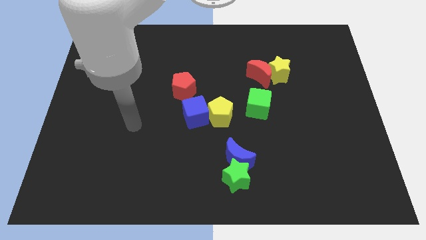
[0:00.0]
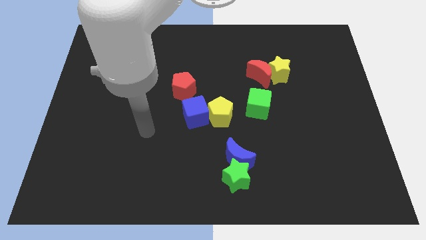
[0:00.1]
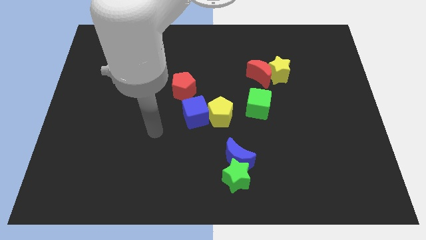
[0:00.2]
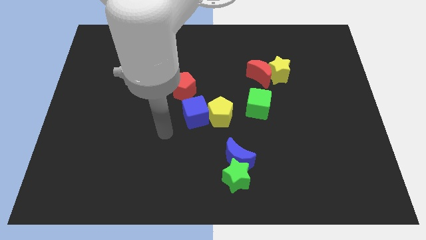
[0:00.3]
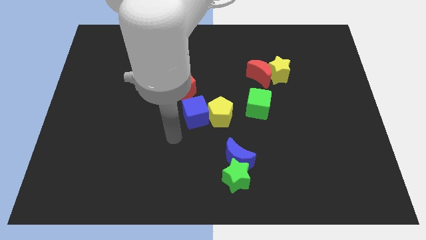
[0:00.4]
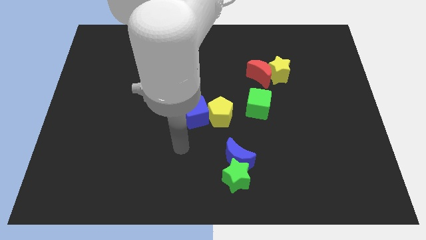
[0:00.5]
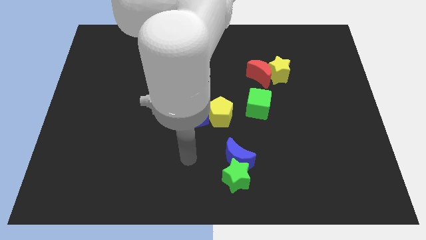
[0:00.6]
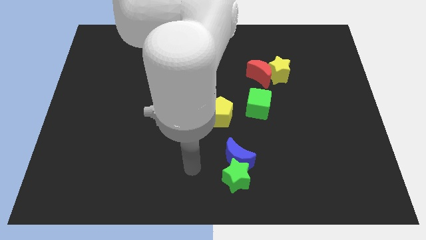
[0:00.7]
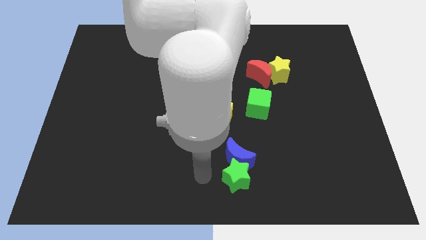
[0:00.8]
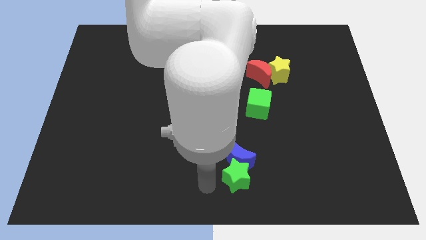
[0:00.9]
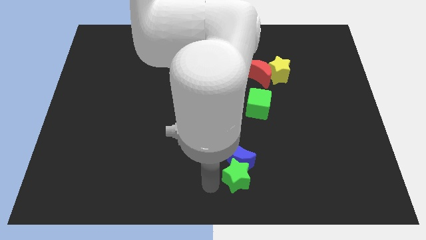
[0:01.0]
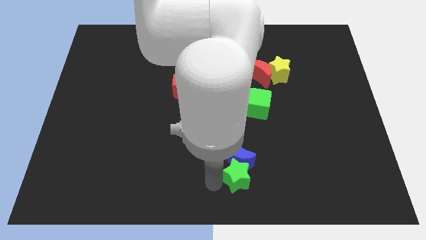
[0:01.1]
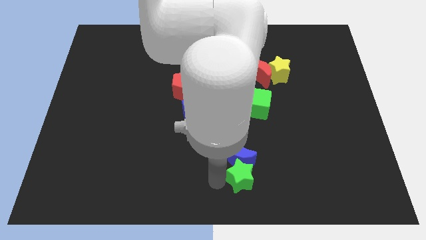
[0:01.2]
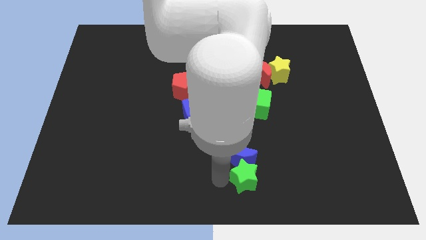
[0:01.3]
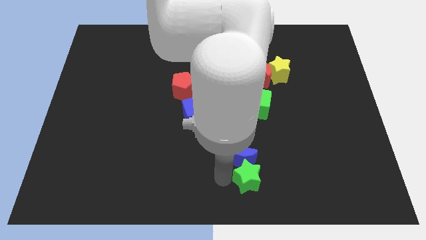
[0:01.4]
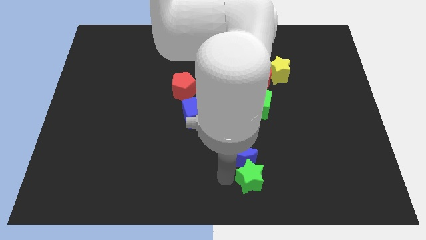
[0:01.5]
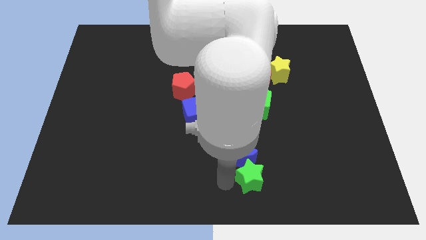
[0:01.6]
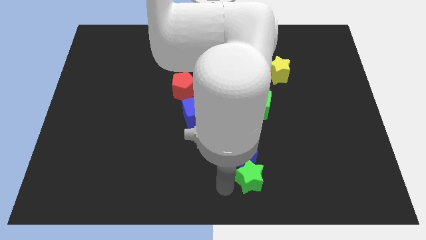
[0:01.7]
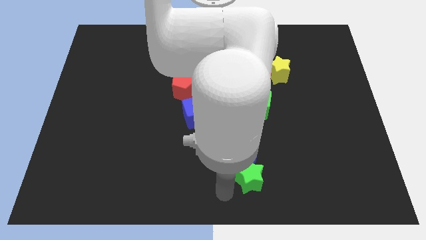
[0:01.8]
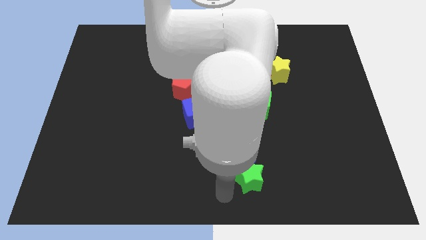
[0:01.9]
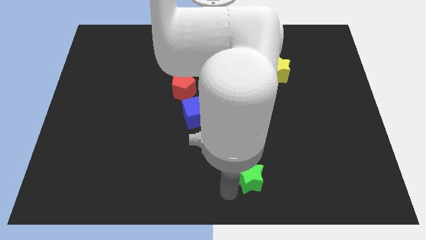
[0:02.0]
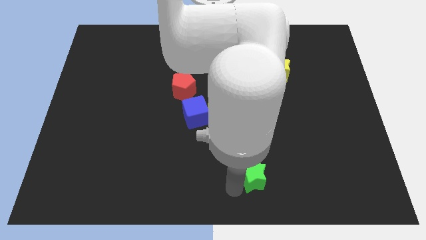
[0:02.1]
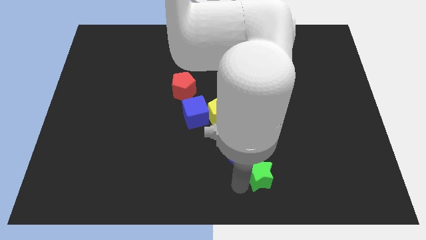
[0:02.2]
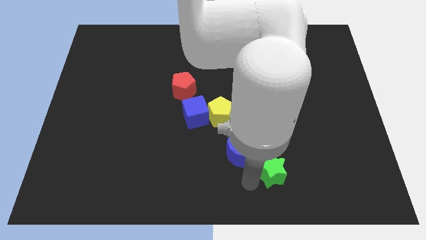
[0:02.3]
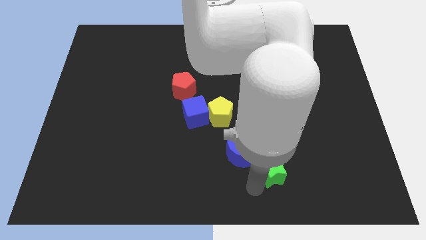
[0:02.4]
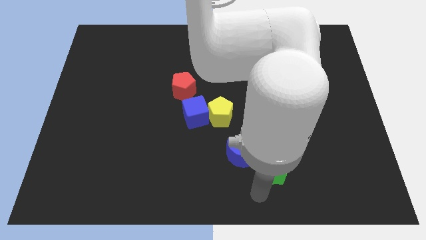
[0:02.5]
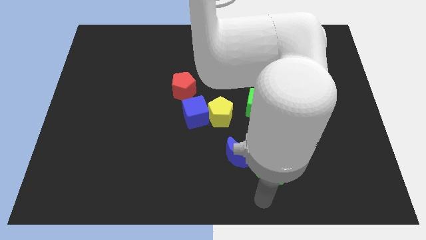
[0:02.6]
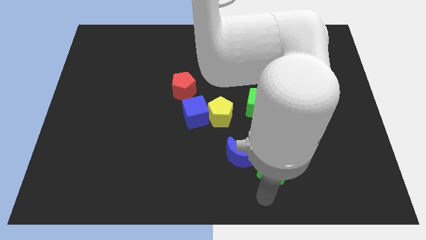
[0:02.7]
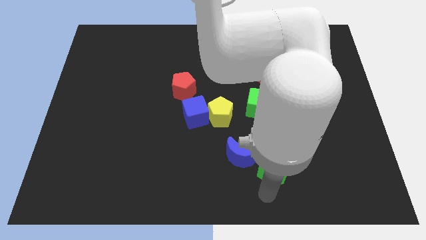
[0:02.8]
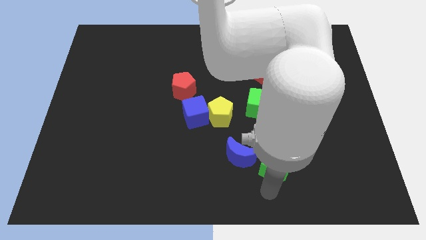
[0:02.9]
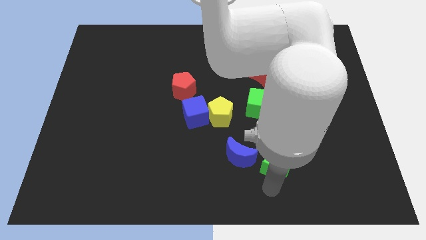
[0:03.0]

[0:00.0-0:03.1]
push the green star a bit diagonally upwards and right

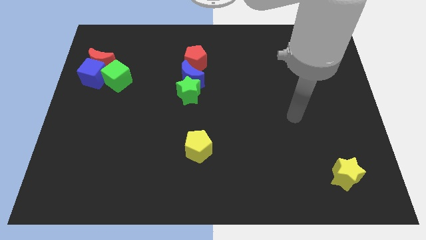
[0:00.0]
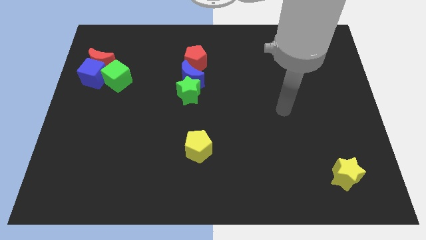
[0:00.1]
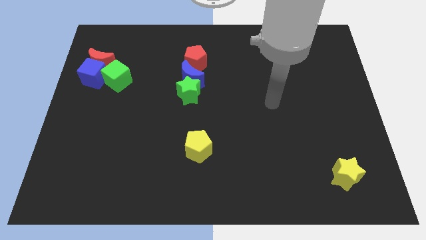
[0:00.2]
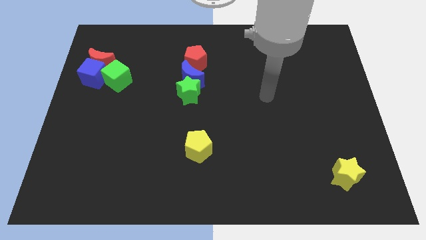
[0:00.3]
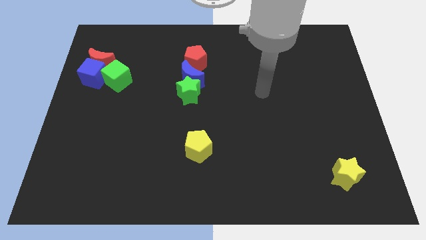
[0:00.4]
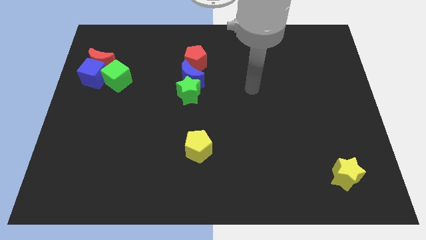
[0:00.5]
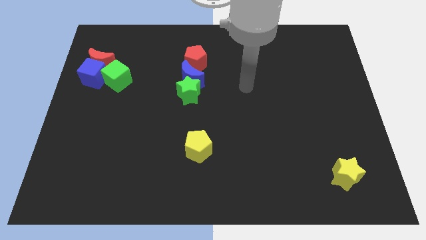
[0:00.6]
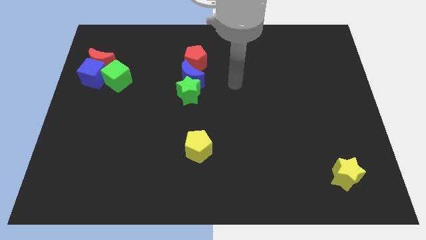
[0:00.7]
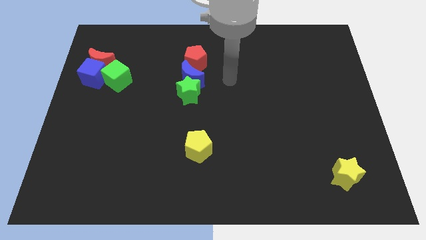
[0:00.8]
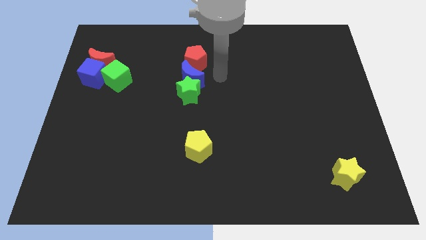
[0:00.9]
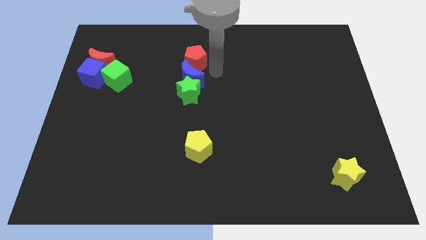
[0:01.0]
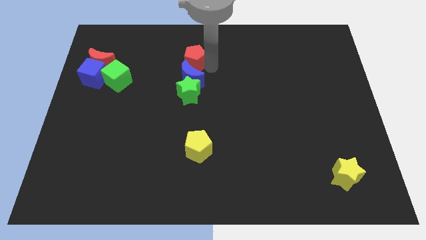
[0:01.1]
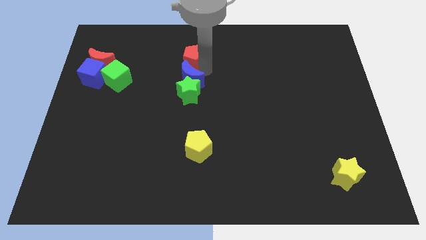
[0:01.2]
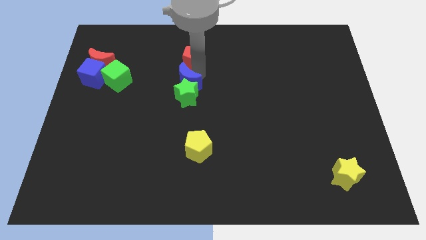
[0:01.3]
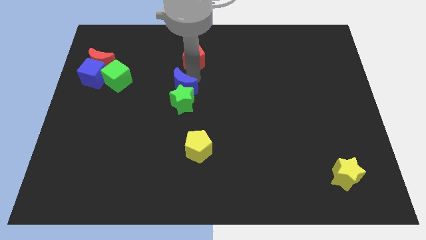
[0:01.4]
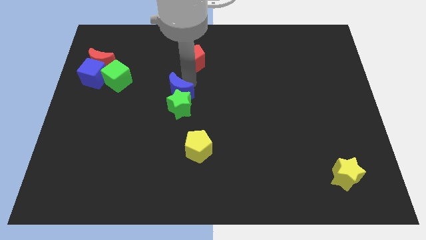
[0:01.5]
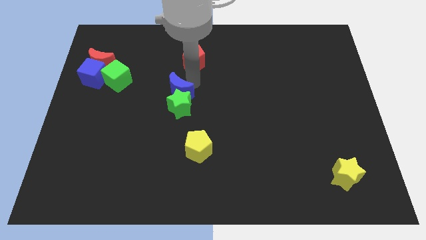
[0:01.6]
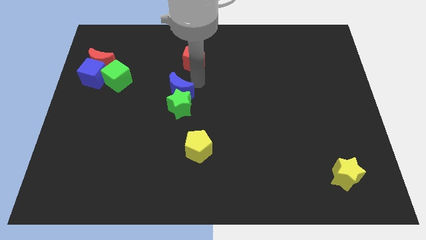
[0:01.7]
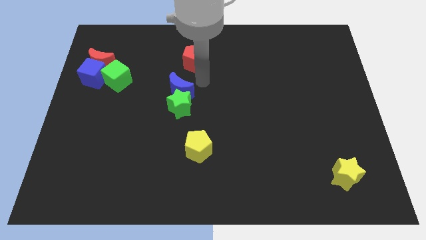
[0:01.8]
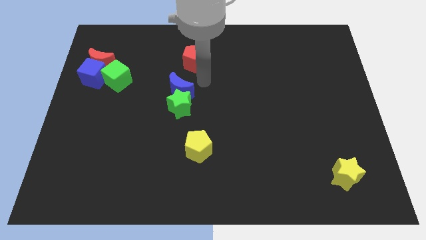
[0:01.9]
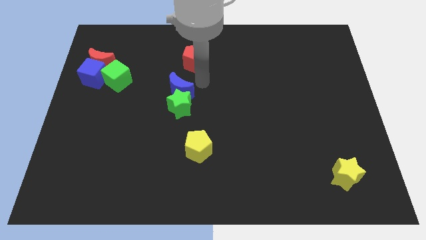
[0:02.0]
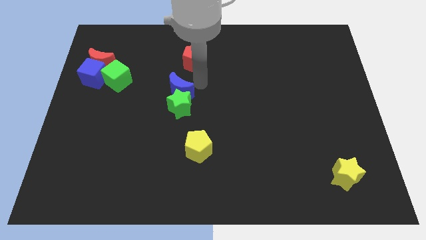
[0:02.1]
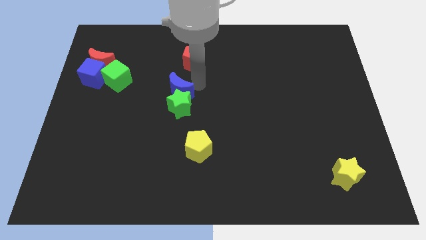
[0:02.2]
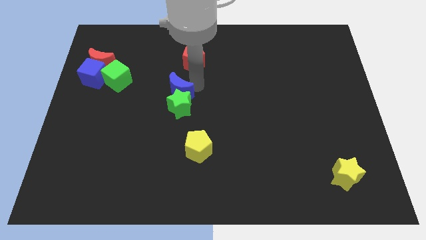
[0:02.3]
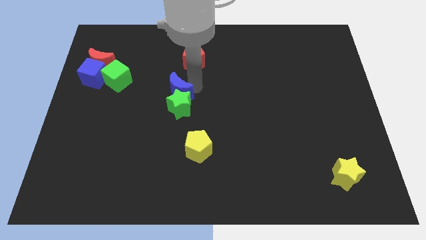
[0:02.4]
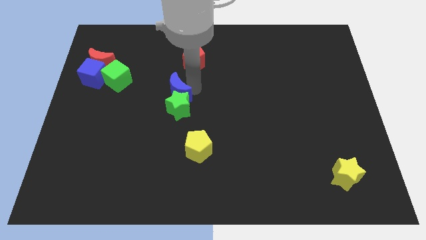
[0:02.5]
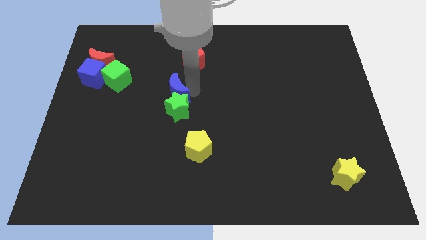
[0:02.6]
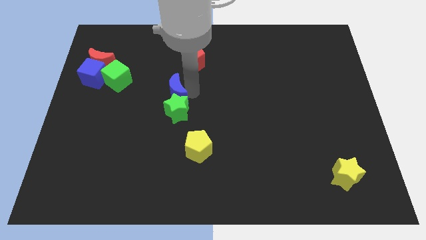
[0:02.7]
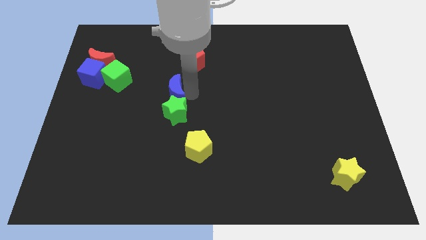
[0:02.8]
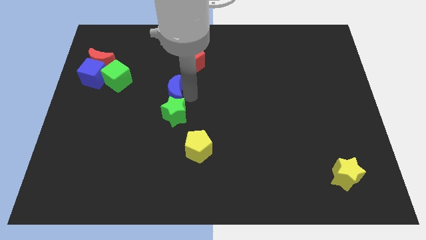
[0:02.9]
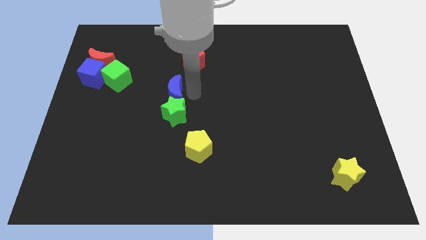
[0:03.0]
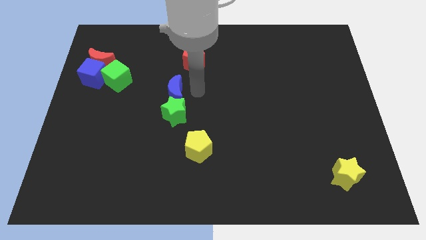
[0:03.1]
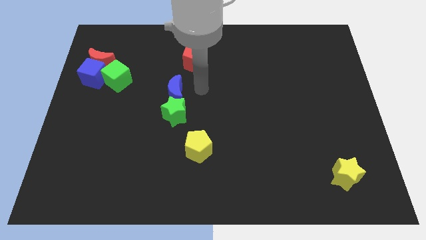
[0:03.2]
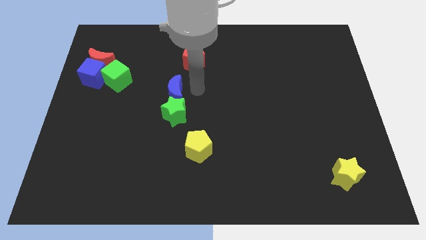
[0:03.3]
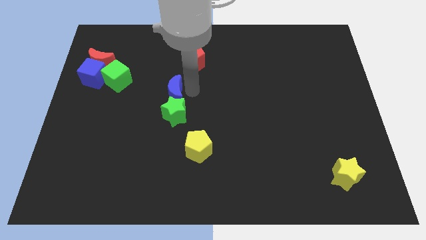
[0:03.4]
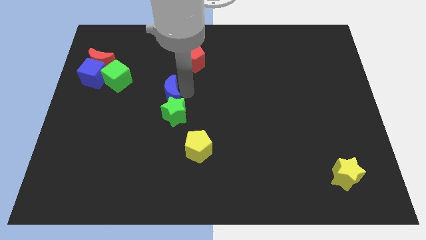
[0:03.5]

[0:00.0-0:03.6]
slightly move the blue moon down and left

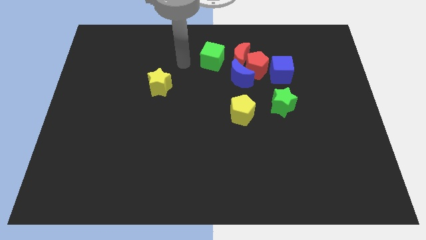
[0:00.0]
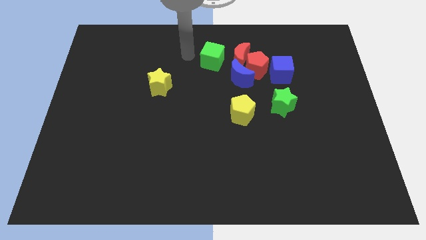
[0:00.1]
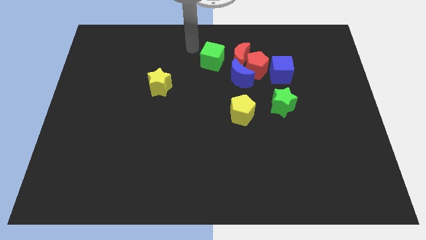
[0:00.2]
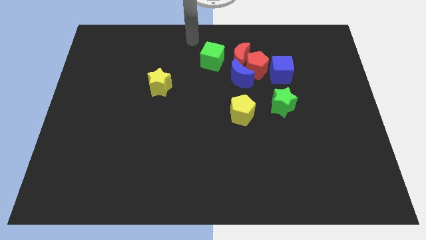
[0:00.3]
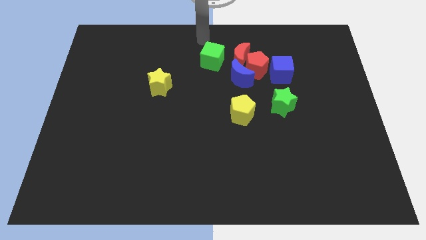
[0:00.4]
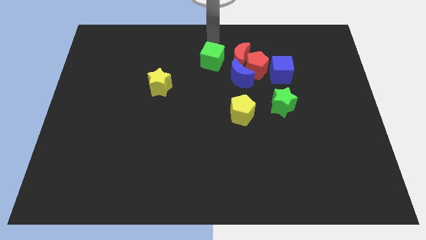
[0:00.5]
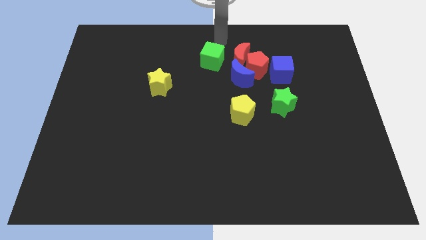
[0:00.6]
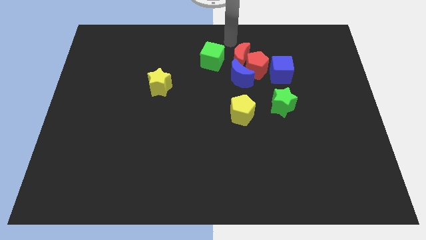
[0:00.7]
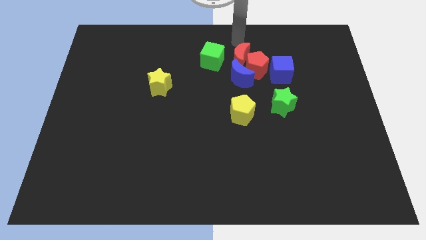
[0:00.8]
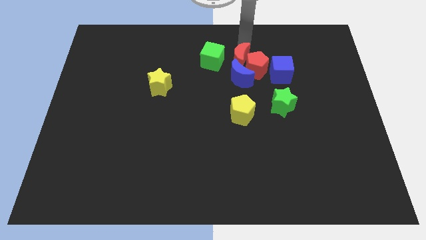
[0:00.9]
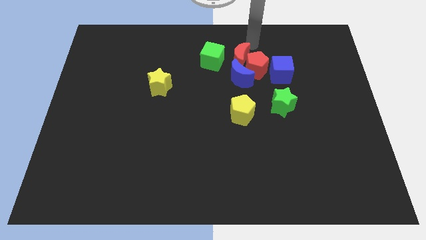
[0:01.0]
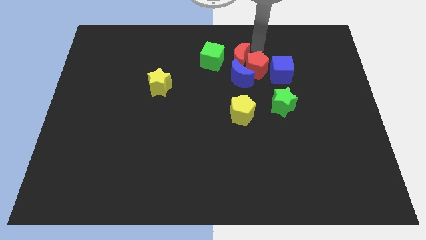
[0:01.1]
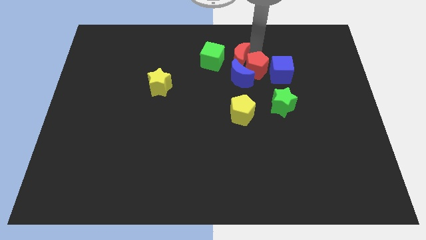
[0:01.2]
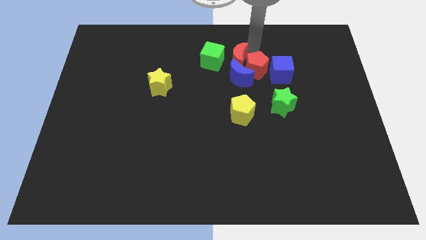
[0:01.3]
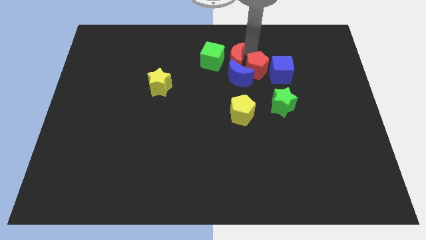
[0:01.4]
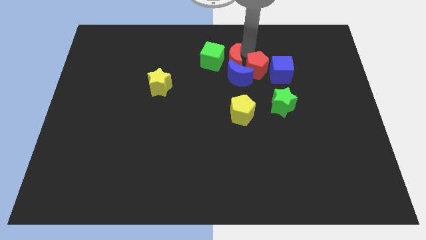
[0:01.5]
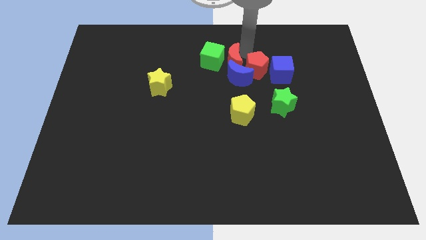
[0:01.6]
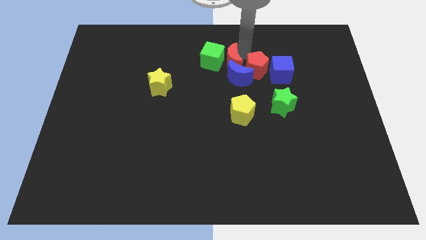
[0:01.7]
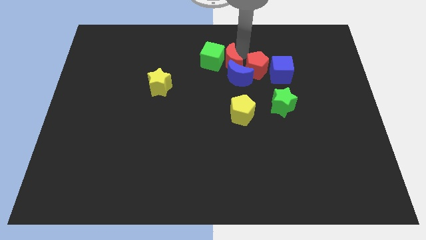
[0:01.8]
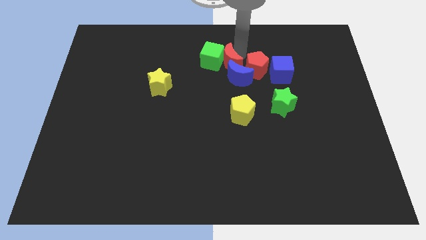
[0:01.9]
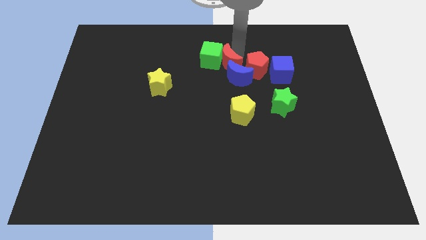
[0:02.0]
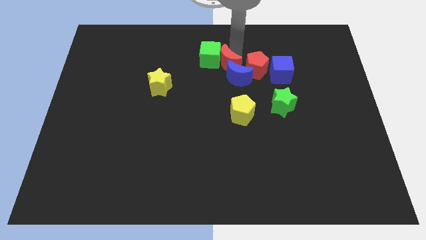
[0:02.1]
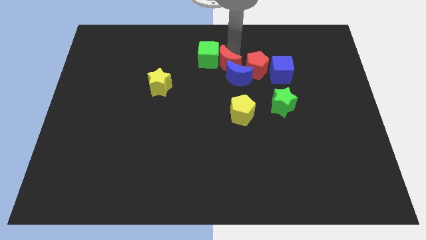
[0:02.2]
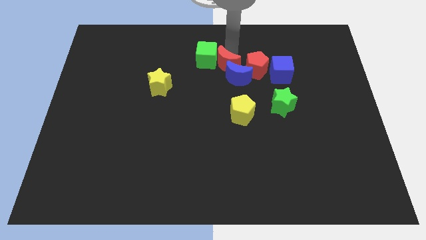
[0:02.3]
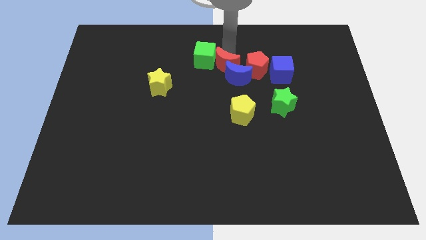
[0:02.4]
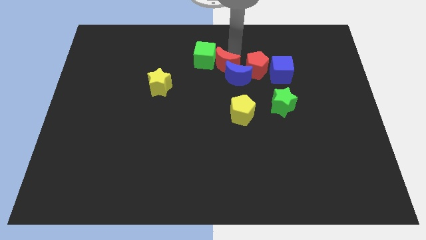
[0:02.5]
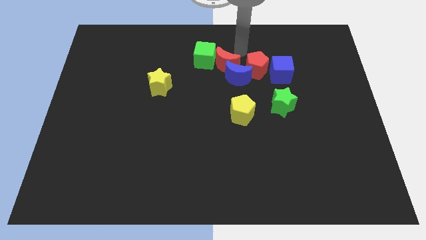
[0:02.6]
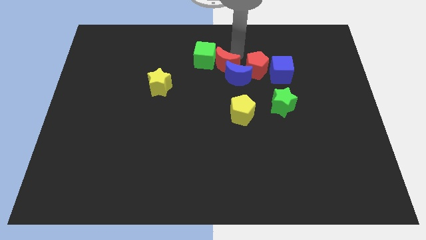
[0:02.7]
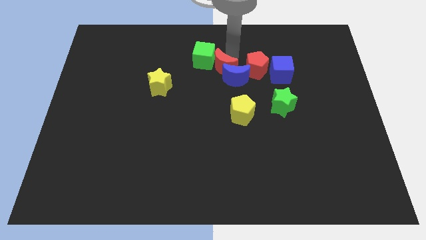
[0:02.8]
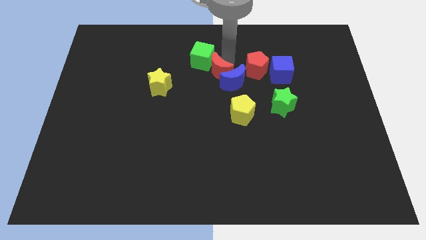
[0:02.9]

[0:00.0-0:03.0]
slightly push the red moon downwards and to the left
